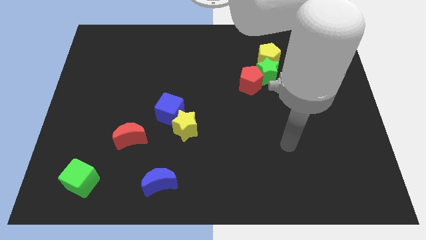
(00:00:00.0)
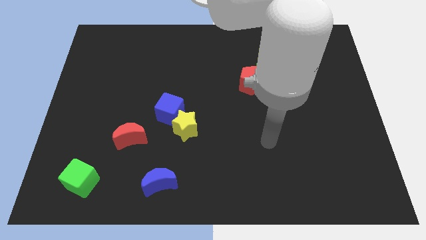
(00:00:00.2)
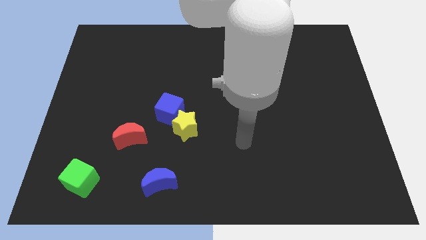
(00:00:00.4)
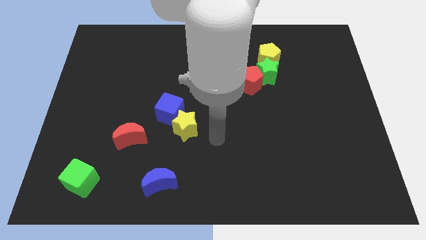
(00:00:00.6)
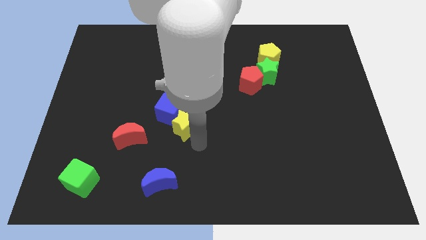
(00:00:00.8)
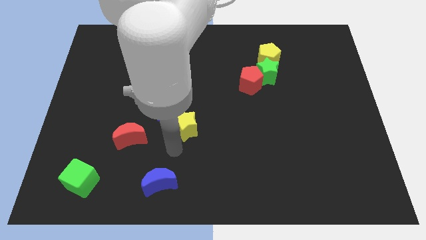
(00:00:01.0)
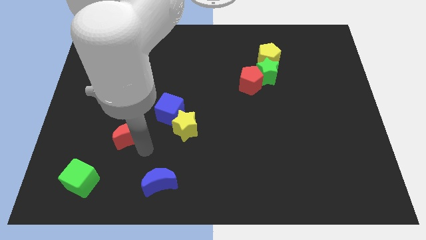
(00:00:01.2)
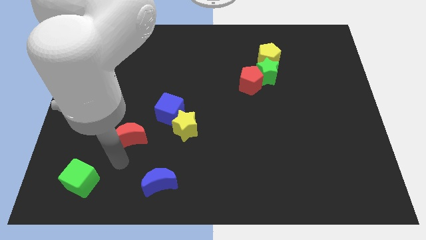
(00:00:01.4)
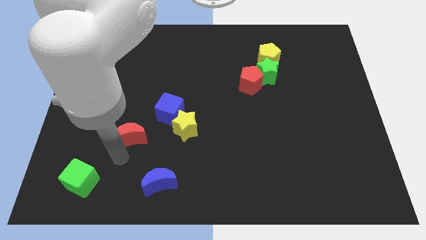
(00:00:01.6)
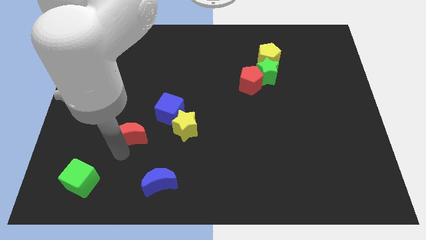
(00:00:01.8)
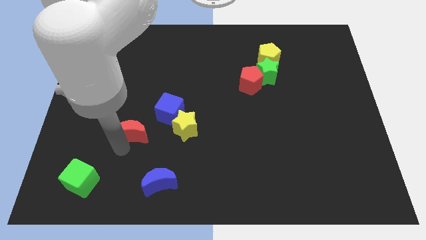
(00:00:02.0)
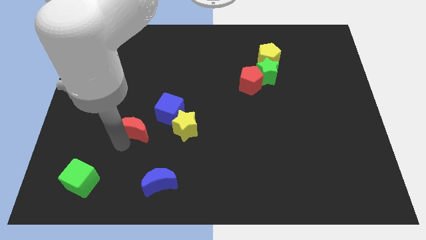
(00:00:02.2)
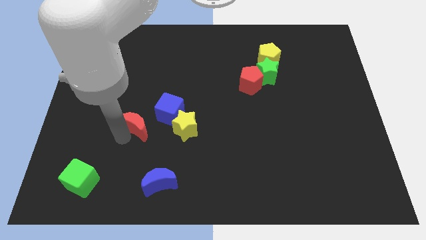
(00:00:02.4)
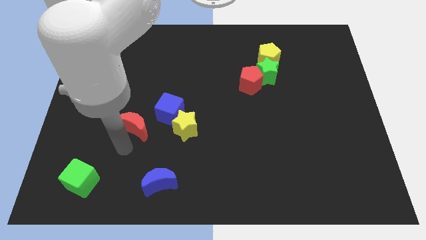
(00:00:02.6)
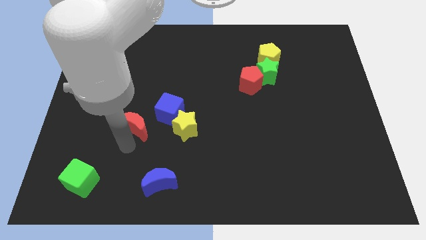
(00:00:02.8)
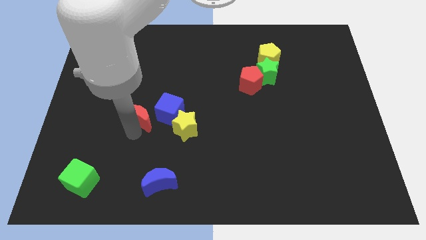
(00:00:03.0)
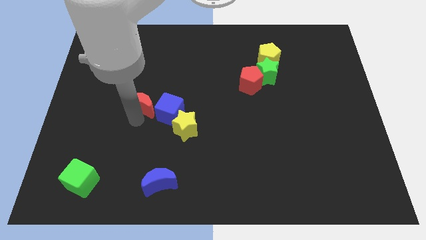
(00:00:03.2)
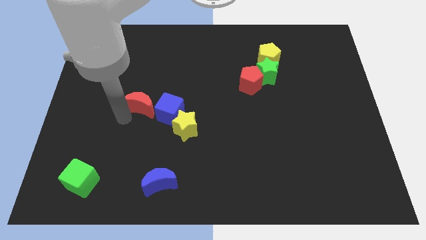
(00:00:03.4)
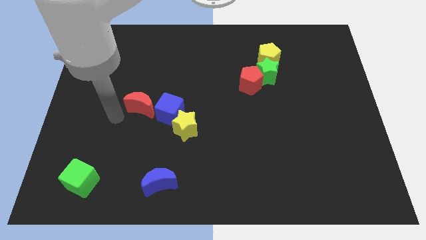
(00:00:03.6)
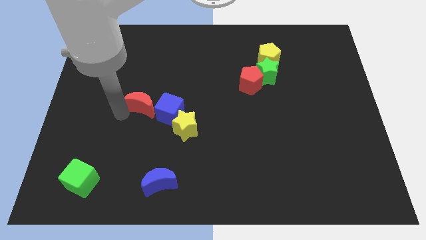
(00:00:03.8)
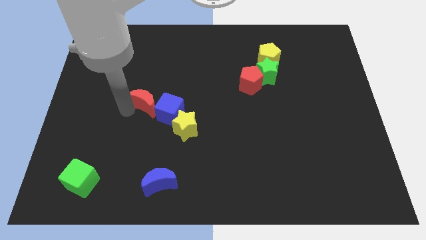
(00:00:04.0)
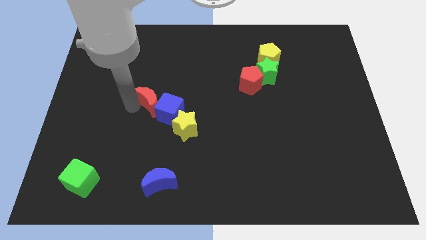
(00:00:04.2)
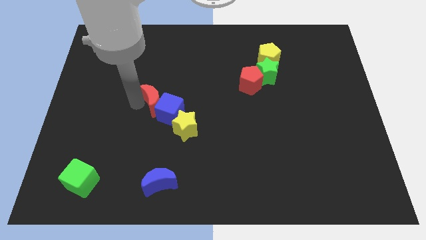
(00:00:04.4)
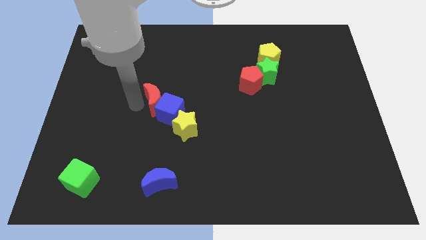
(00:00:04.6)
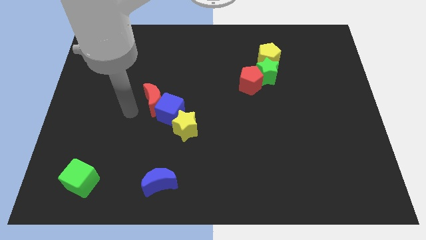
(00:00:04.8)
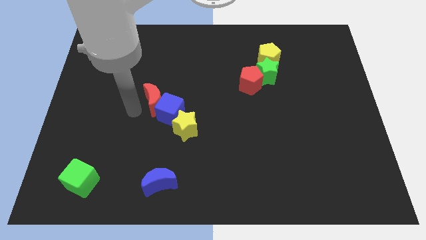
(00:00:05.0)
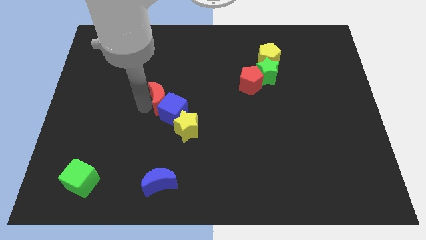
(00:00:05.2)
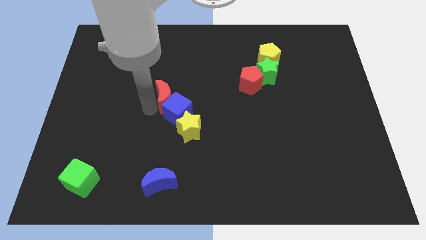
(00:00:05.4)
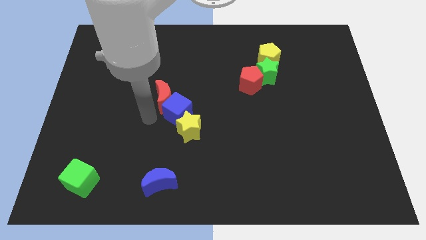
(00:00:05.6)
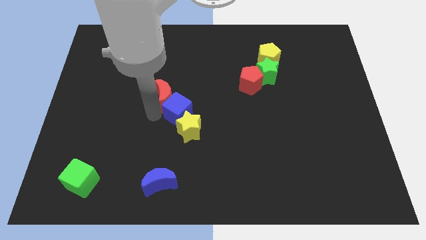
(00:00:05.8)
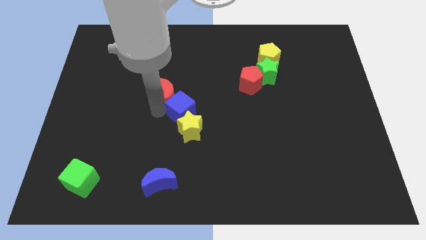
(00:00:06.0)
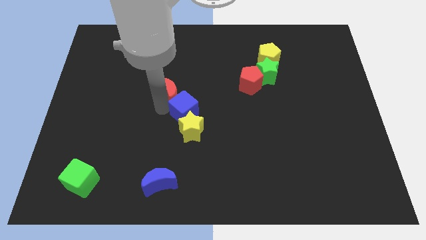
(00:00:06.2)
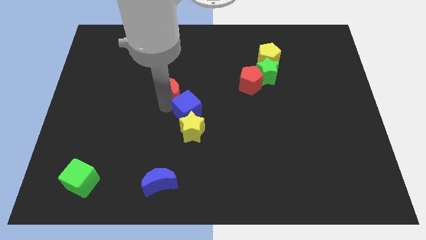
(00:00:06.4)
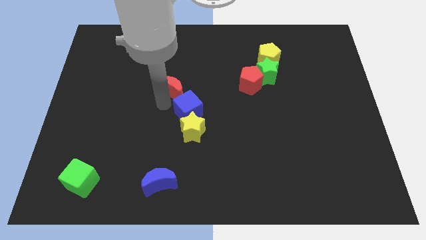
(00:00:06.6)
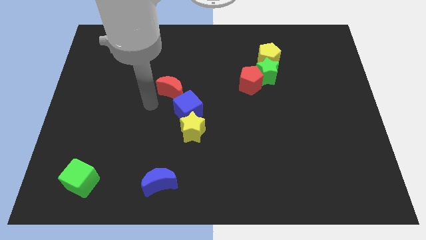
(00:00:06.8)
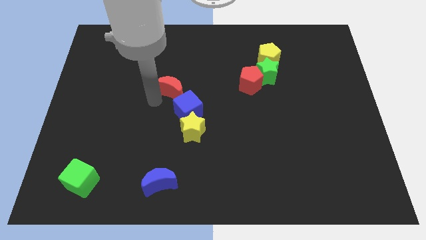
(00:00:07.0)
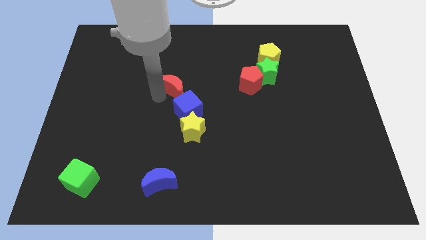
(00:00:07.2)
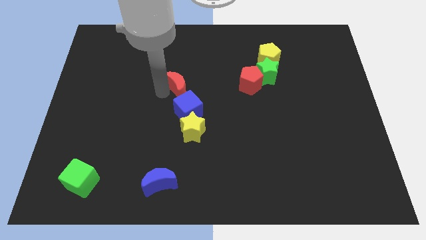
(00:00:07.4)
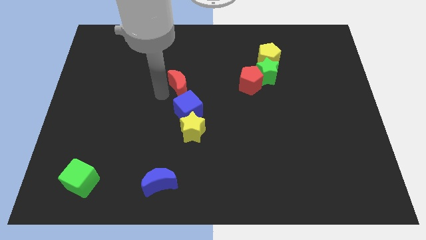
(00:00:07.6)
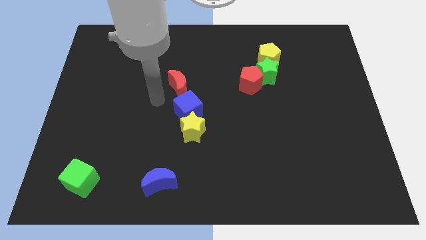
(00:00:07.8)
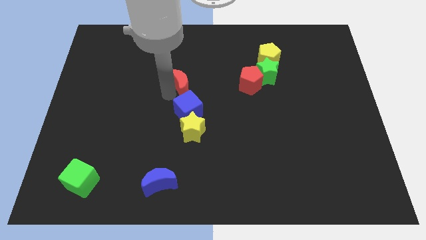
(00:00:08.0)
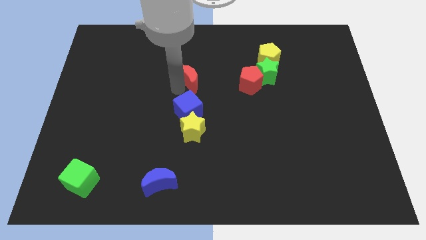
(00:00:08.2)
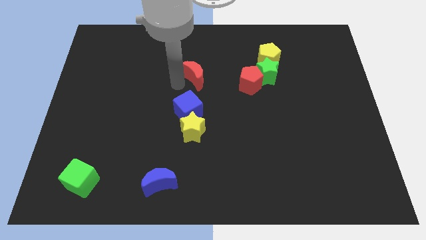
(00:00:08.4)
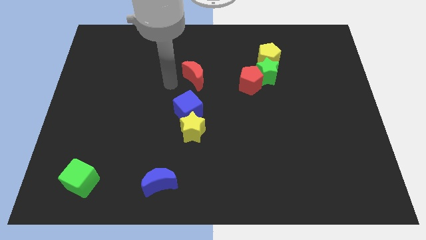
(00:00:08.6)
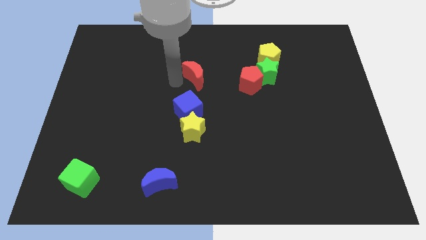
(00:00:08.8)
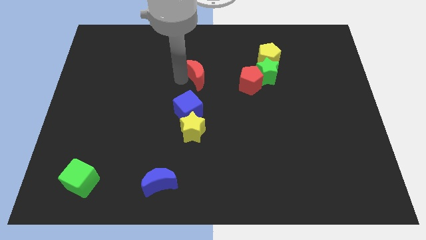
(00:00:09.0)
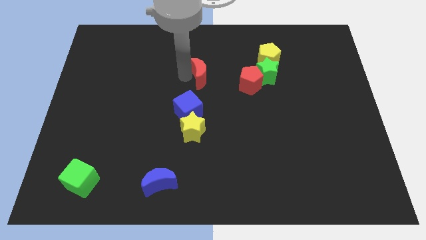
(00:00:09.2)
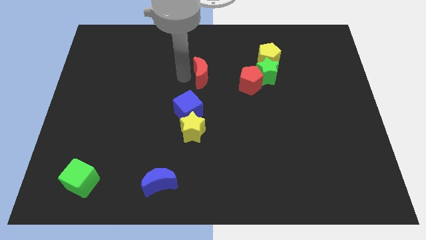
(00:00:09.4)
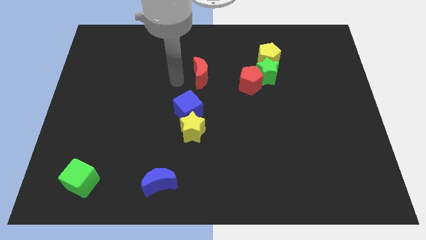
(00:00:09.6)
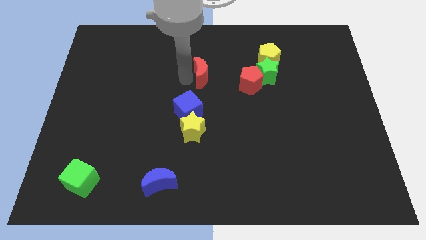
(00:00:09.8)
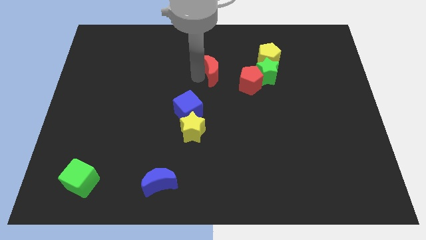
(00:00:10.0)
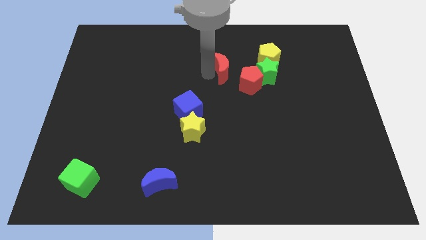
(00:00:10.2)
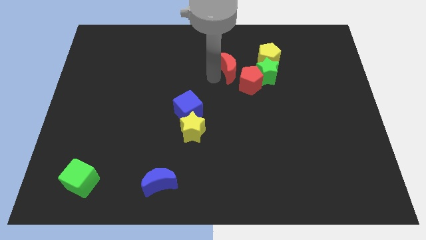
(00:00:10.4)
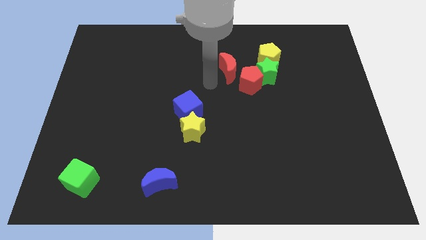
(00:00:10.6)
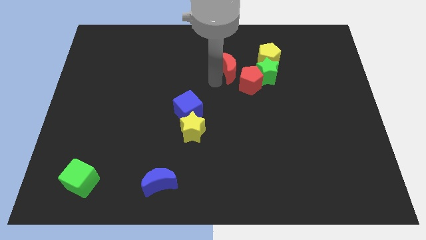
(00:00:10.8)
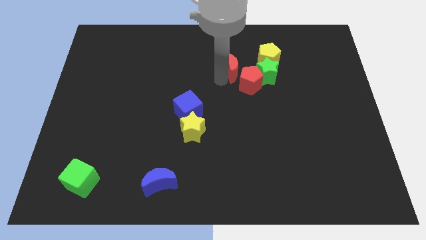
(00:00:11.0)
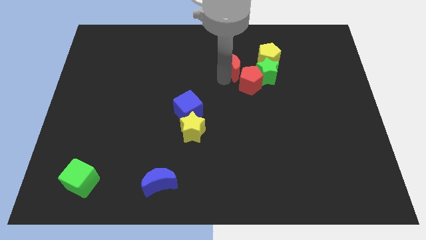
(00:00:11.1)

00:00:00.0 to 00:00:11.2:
put the red moon to the top left of the green star

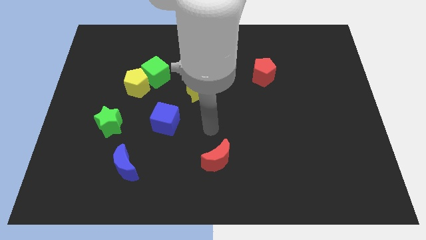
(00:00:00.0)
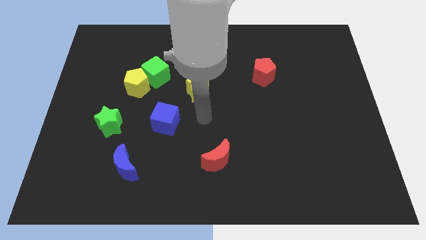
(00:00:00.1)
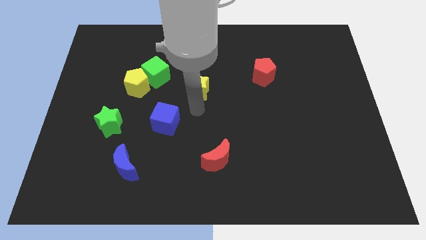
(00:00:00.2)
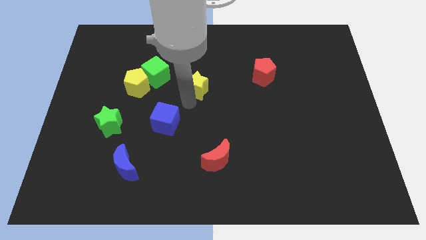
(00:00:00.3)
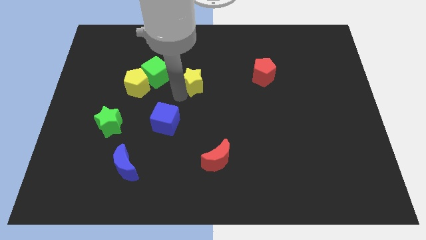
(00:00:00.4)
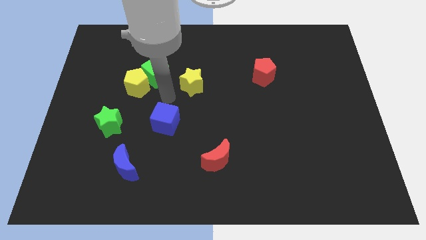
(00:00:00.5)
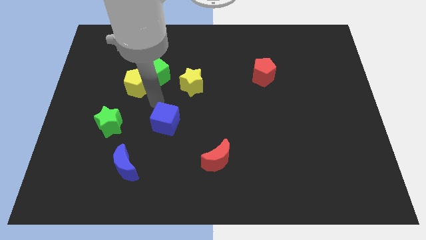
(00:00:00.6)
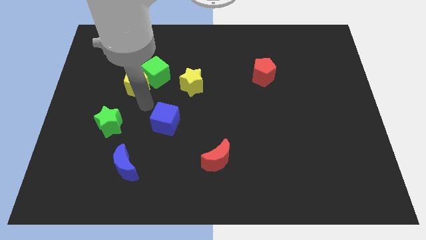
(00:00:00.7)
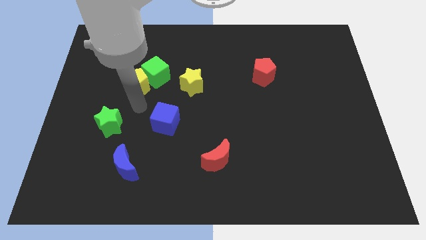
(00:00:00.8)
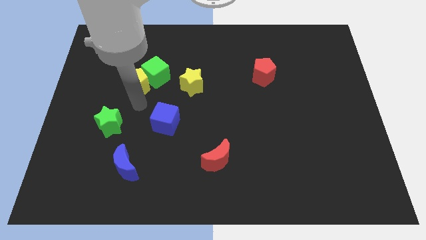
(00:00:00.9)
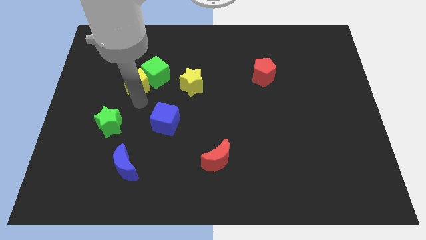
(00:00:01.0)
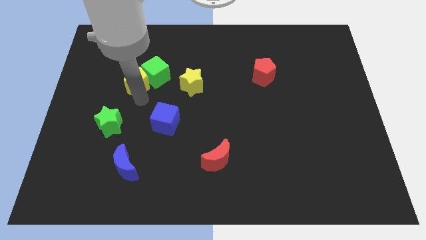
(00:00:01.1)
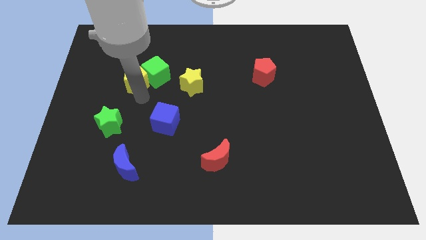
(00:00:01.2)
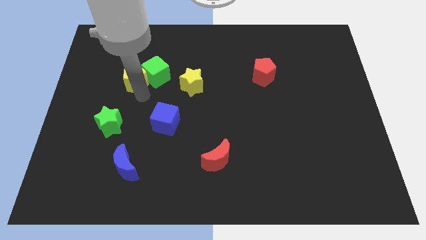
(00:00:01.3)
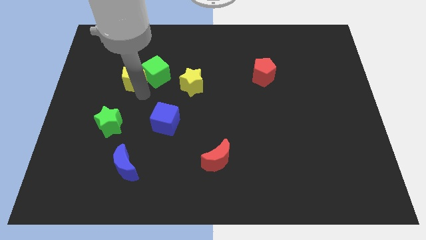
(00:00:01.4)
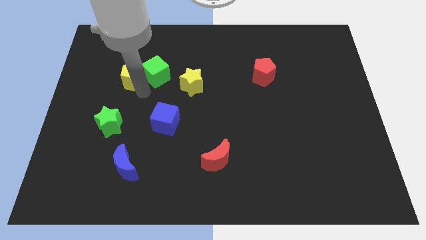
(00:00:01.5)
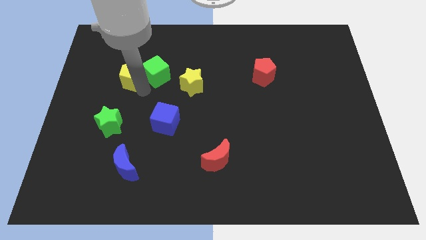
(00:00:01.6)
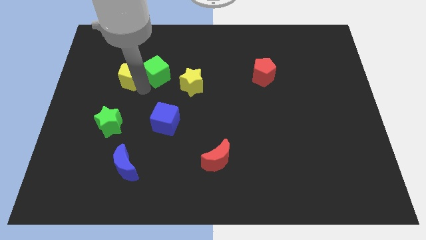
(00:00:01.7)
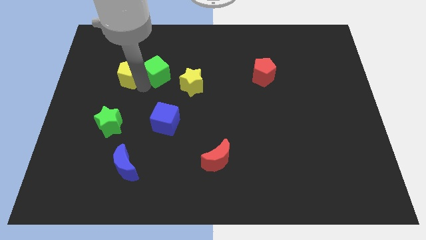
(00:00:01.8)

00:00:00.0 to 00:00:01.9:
slide the yellow pentagon to the top left side of the green cube
